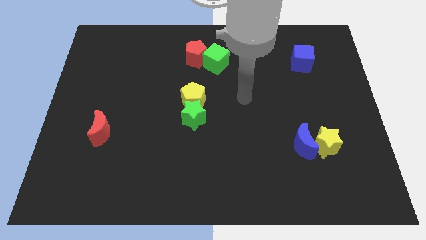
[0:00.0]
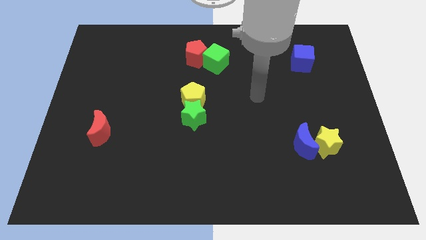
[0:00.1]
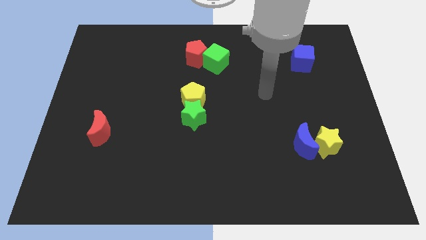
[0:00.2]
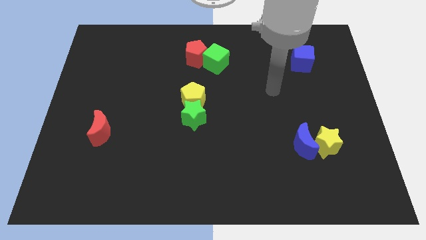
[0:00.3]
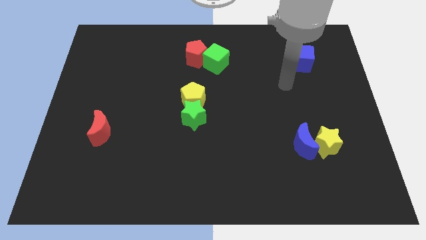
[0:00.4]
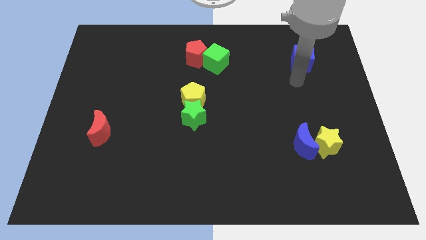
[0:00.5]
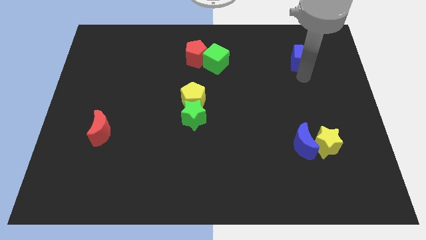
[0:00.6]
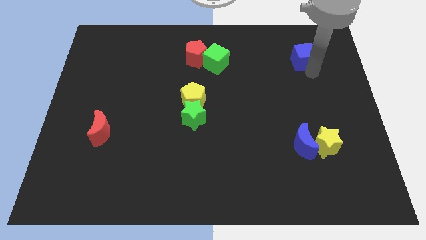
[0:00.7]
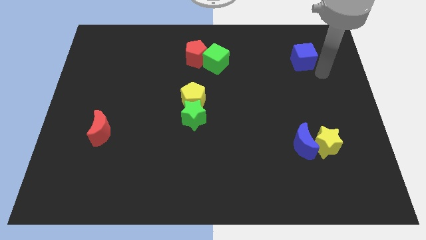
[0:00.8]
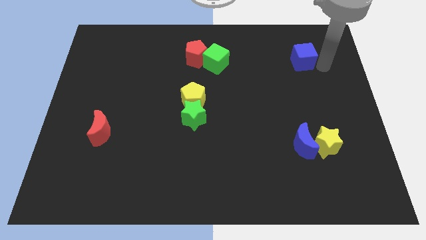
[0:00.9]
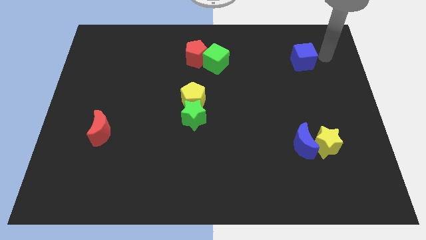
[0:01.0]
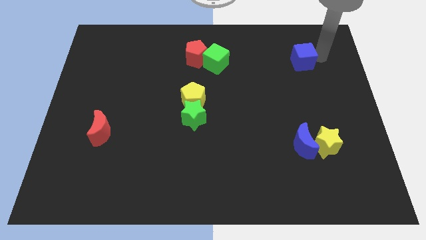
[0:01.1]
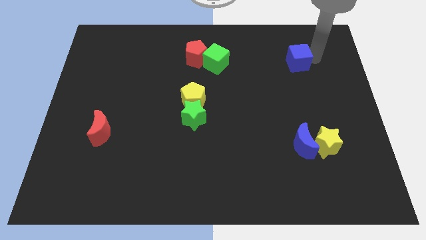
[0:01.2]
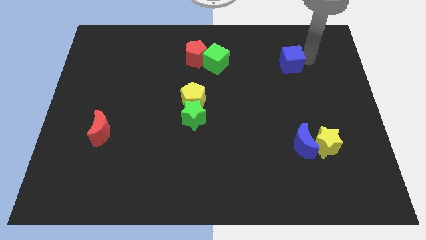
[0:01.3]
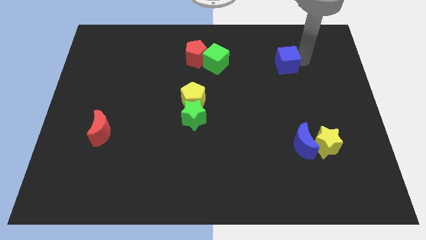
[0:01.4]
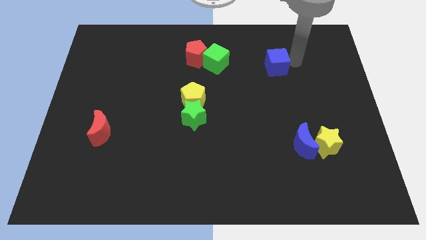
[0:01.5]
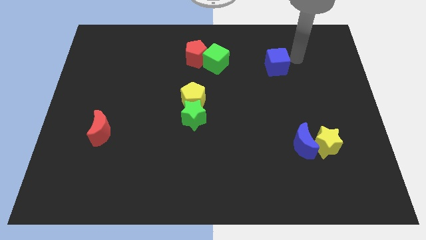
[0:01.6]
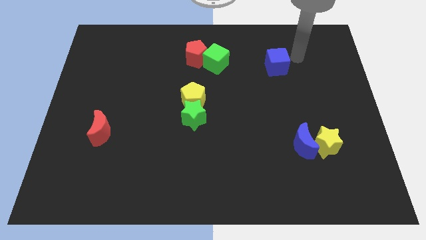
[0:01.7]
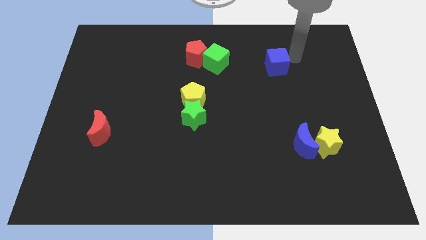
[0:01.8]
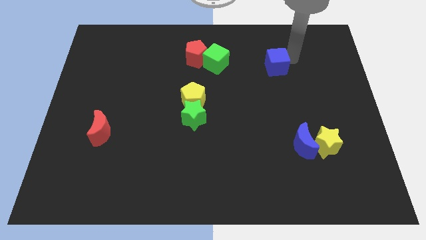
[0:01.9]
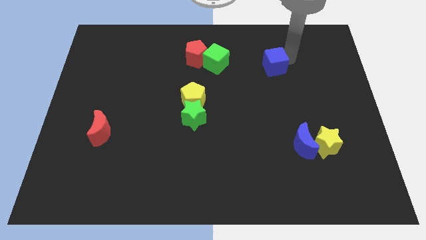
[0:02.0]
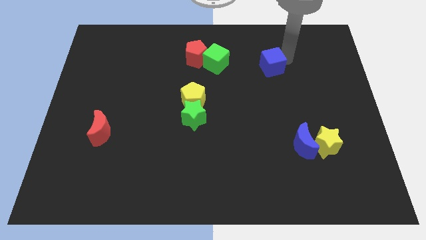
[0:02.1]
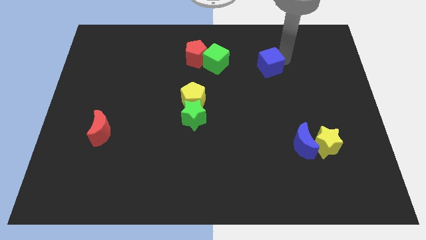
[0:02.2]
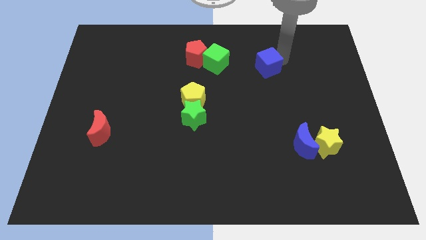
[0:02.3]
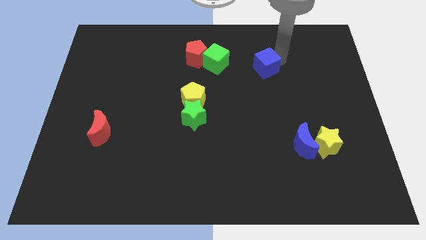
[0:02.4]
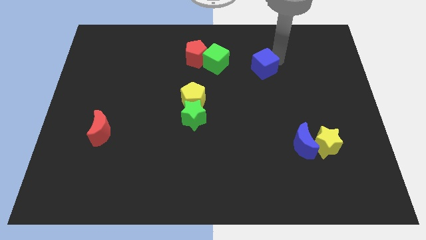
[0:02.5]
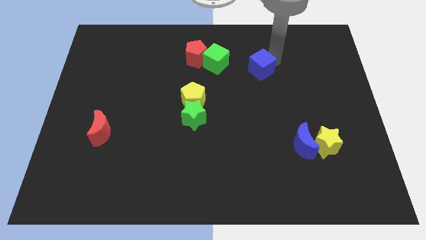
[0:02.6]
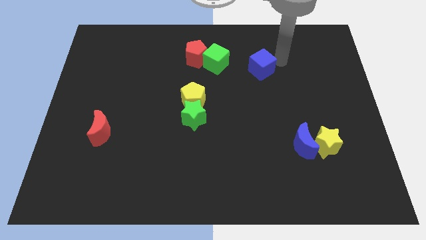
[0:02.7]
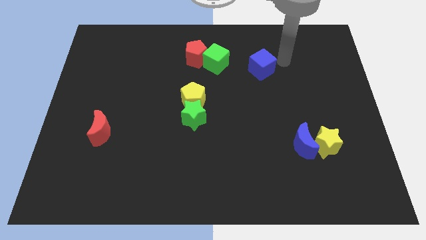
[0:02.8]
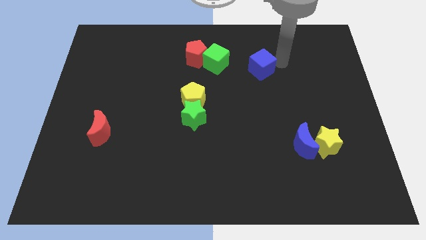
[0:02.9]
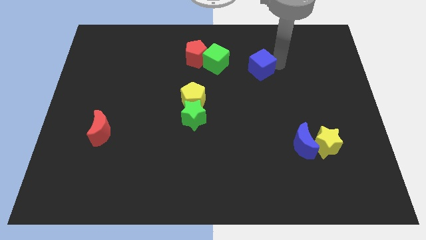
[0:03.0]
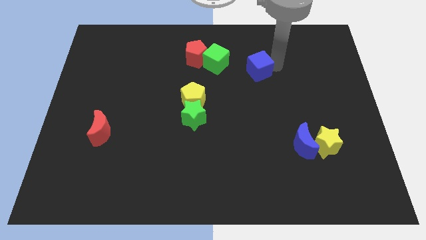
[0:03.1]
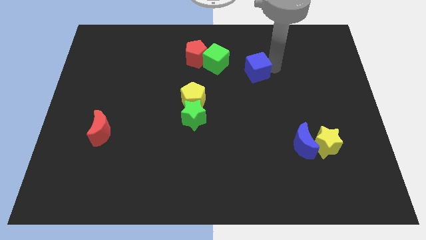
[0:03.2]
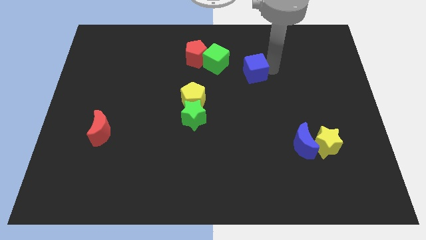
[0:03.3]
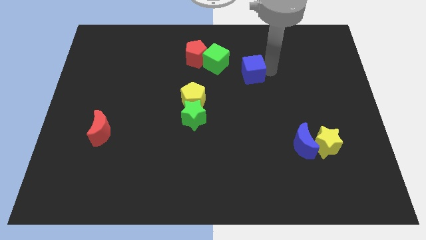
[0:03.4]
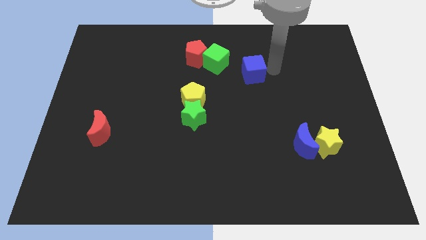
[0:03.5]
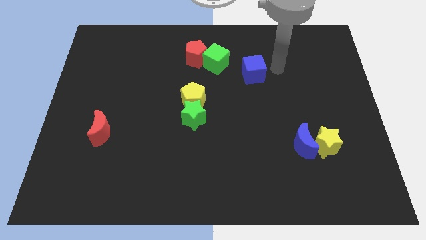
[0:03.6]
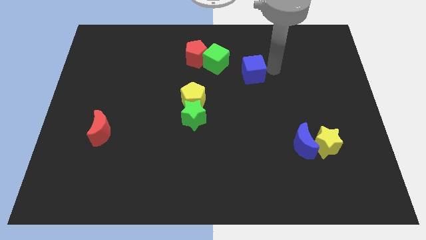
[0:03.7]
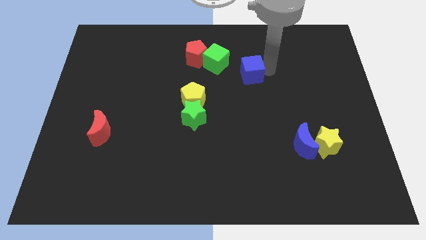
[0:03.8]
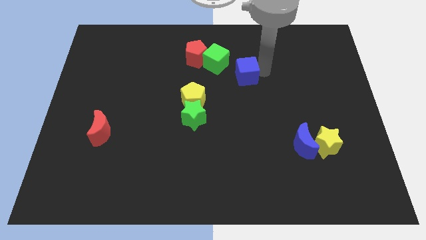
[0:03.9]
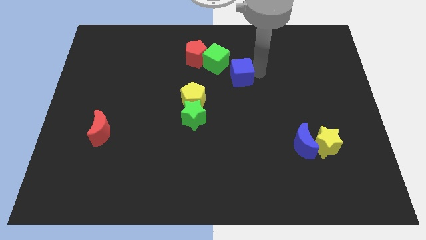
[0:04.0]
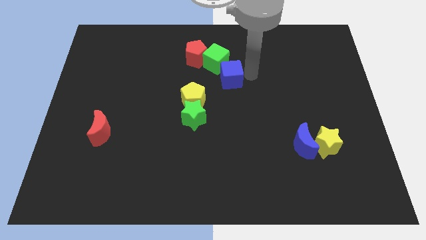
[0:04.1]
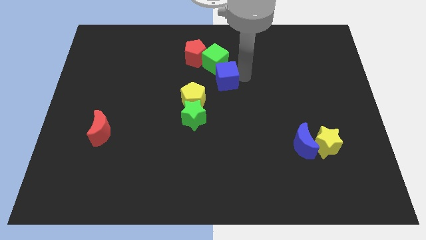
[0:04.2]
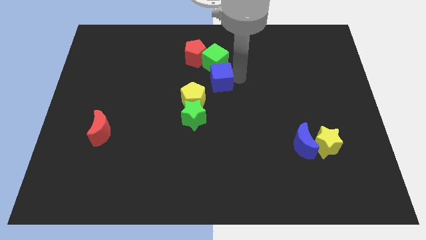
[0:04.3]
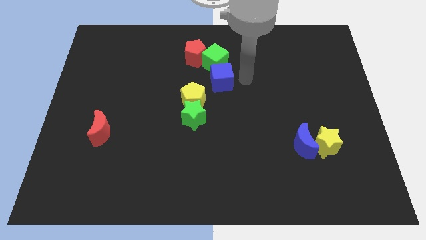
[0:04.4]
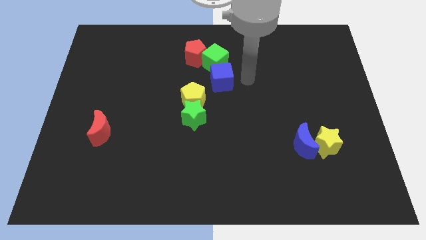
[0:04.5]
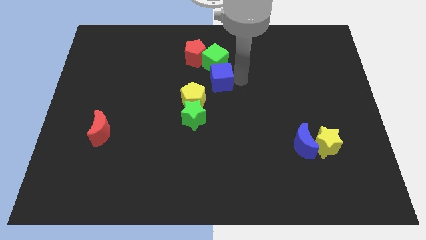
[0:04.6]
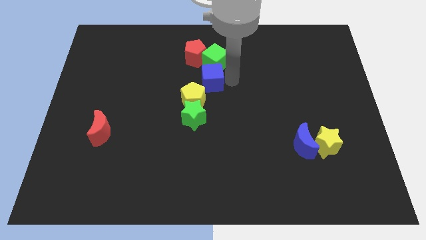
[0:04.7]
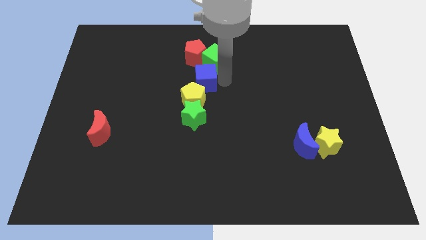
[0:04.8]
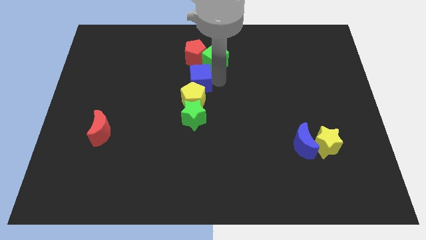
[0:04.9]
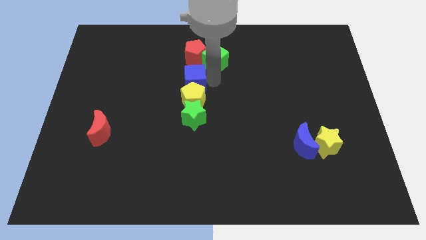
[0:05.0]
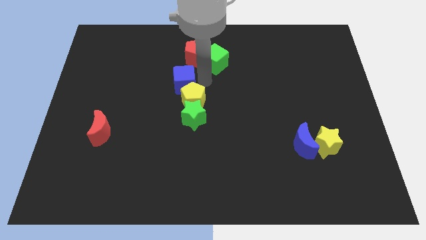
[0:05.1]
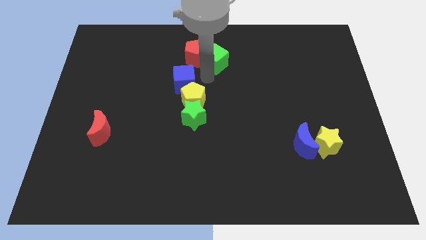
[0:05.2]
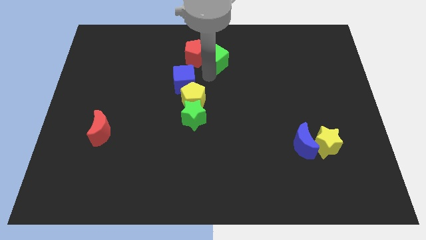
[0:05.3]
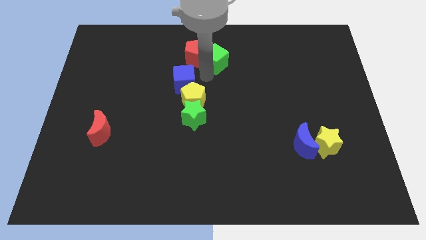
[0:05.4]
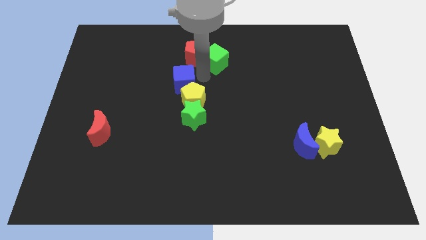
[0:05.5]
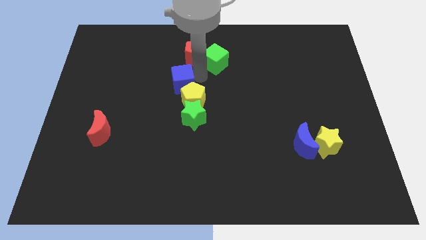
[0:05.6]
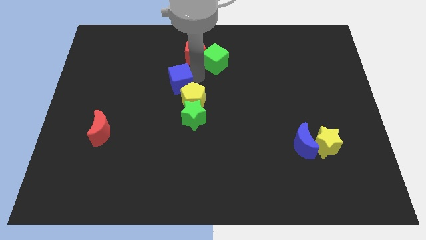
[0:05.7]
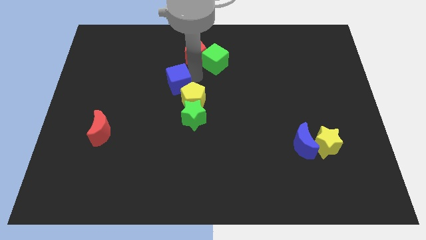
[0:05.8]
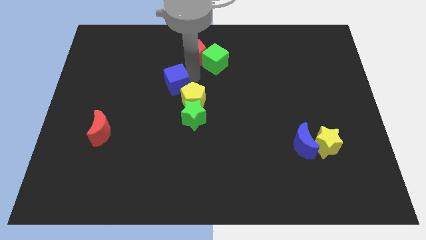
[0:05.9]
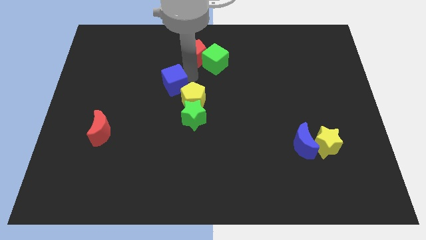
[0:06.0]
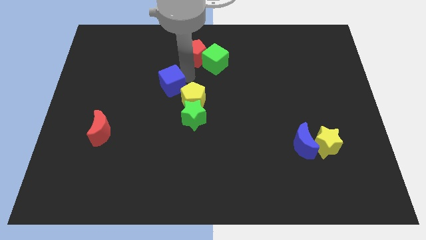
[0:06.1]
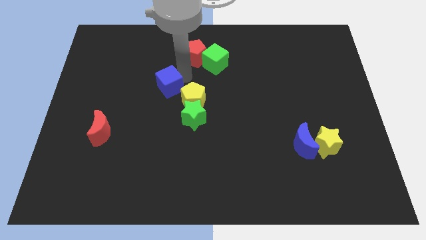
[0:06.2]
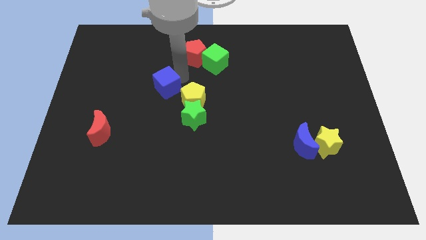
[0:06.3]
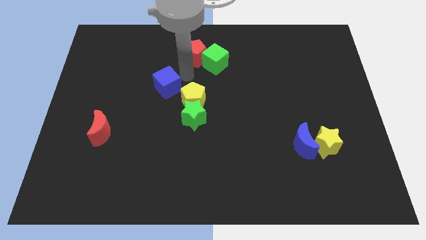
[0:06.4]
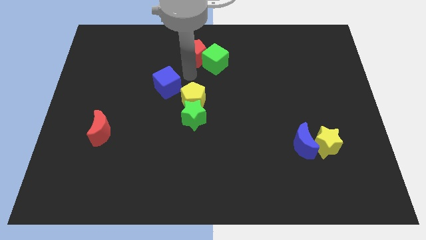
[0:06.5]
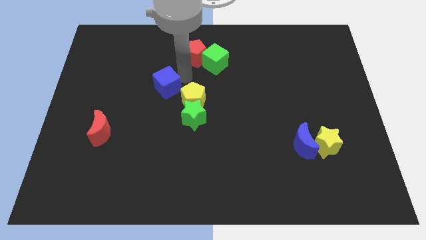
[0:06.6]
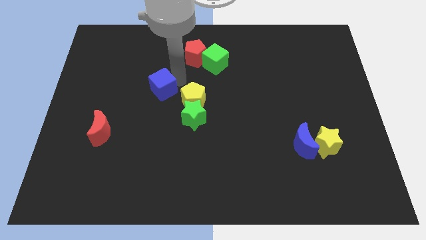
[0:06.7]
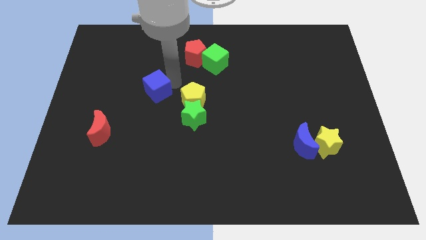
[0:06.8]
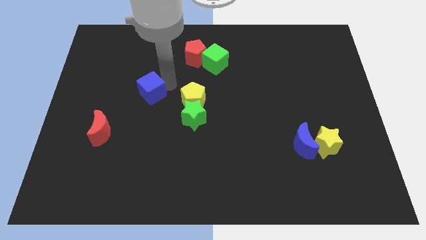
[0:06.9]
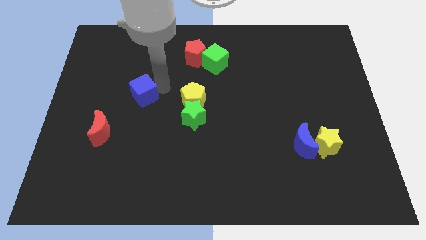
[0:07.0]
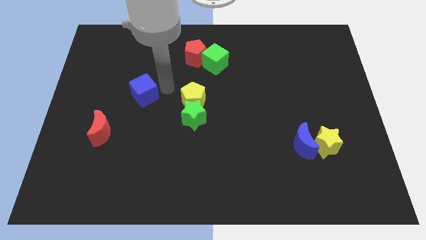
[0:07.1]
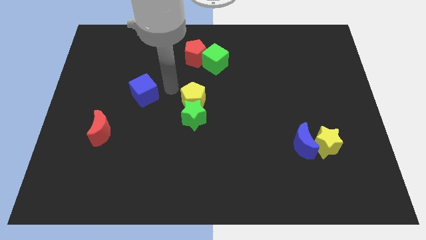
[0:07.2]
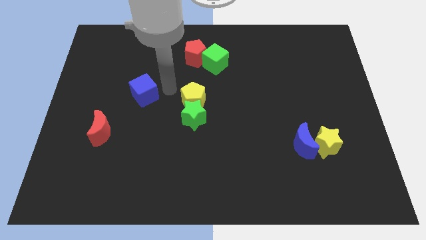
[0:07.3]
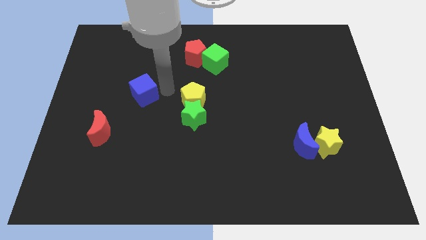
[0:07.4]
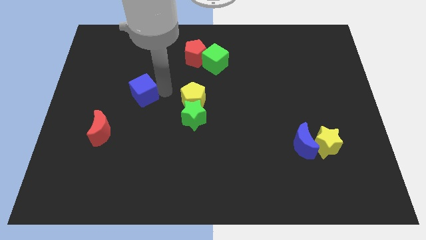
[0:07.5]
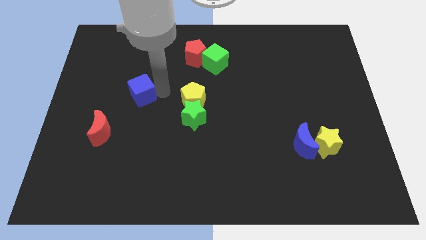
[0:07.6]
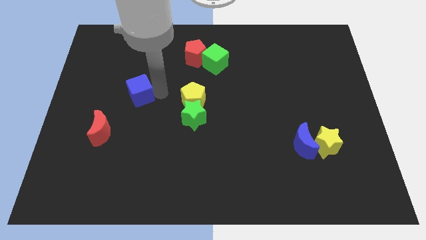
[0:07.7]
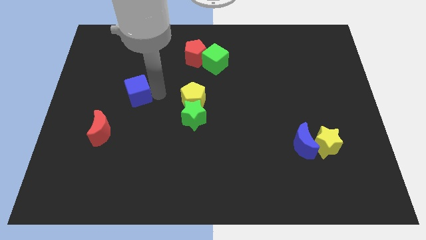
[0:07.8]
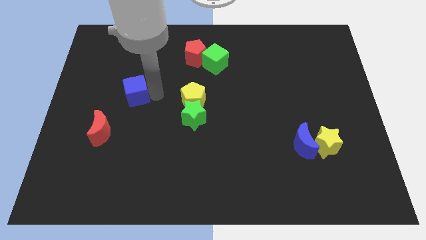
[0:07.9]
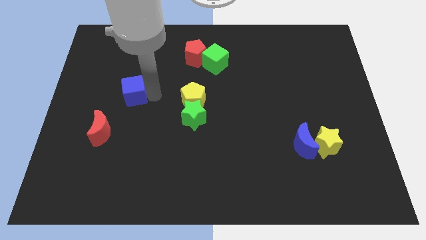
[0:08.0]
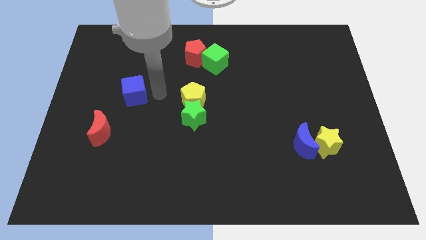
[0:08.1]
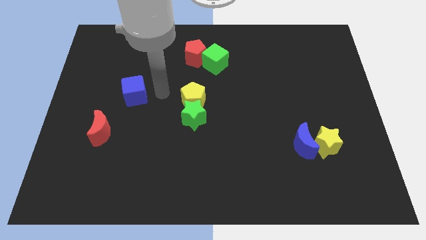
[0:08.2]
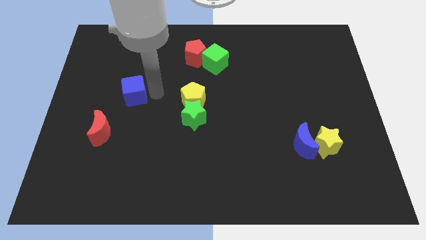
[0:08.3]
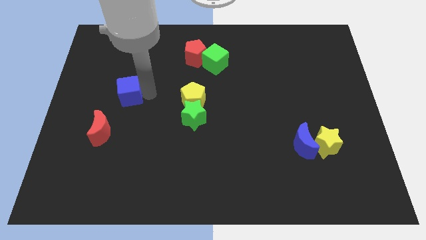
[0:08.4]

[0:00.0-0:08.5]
move the blue cube to the top of the red moon
